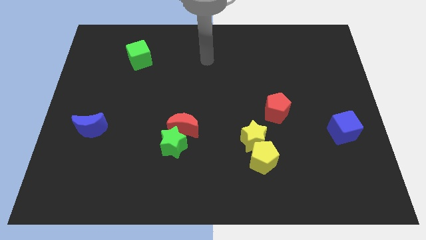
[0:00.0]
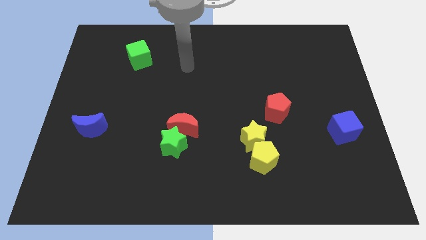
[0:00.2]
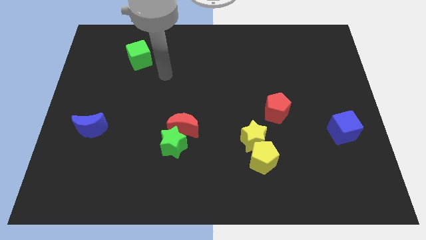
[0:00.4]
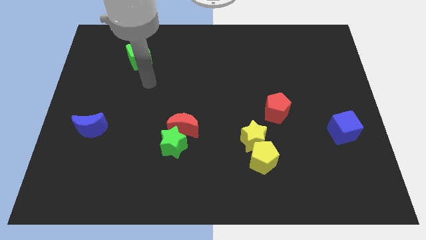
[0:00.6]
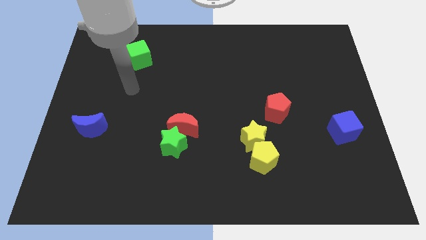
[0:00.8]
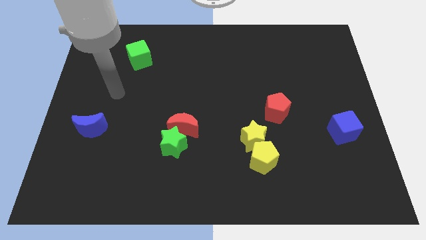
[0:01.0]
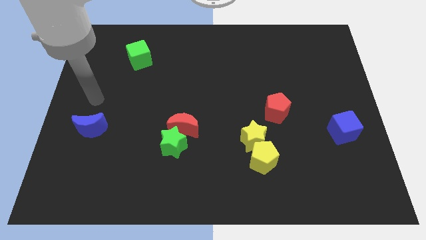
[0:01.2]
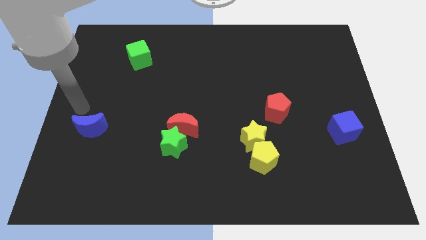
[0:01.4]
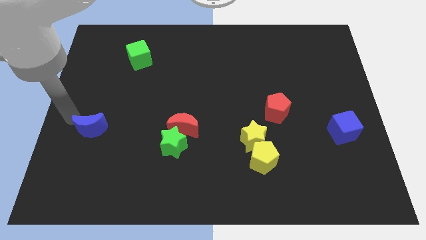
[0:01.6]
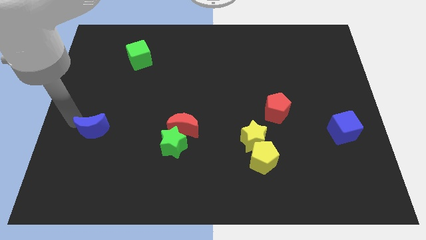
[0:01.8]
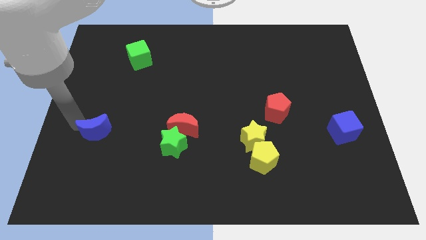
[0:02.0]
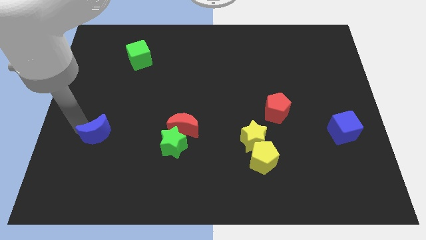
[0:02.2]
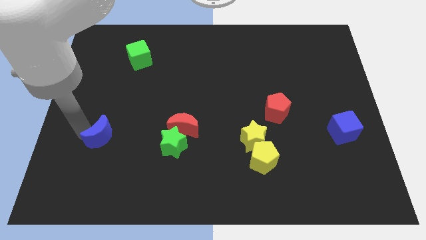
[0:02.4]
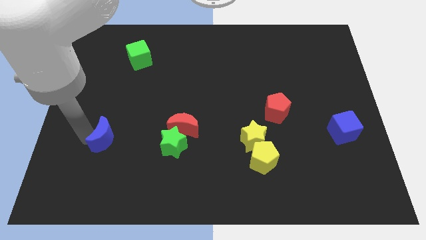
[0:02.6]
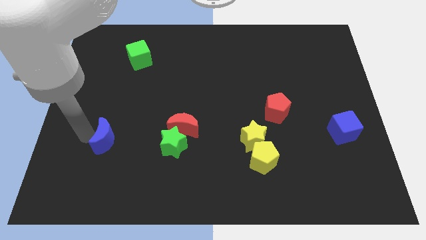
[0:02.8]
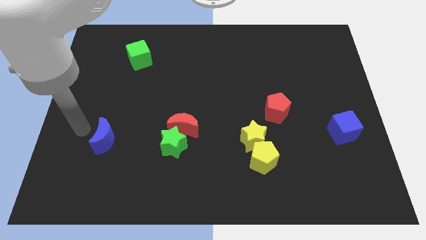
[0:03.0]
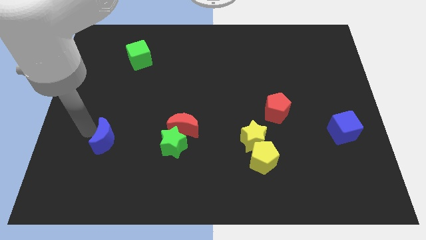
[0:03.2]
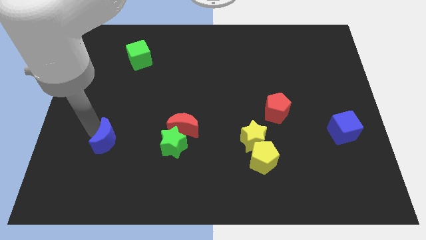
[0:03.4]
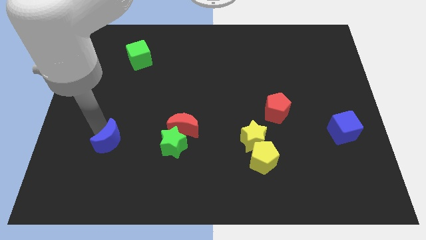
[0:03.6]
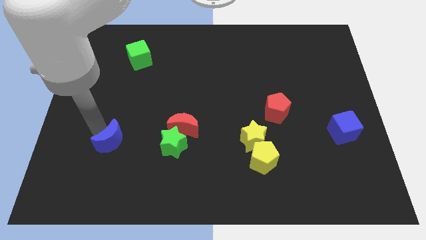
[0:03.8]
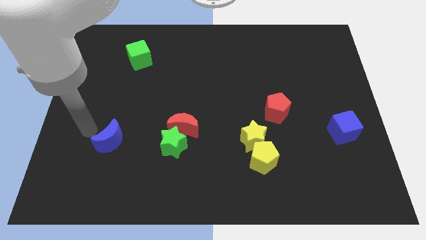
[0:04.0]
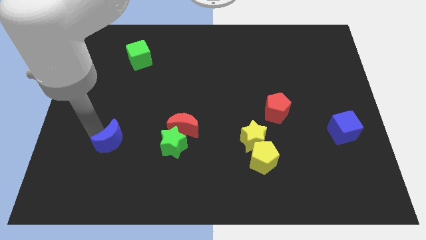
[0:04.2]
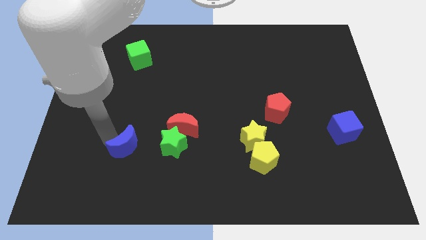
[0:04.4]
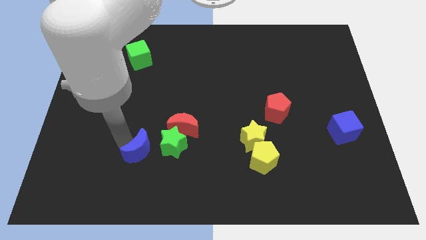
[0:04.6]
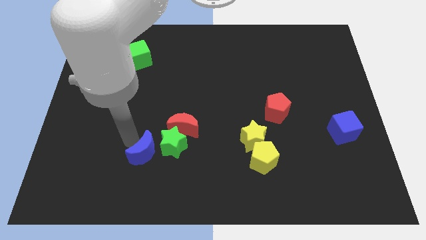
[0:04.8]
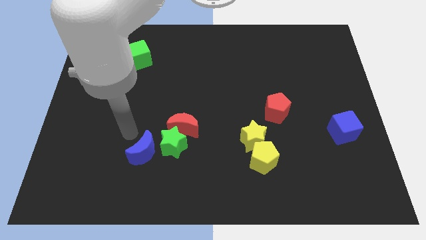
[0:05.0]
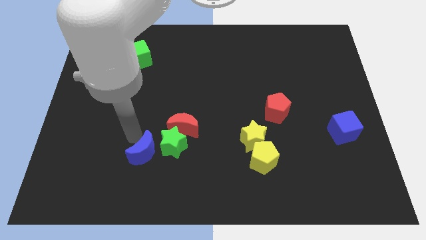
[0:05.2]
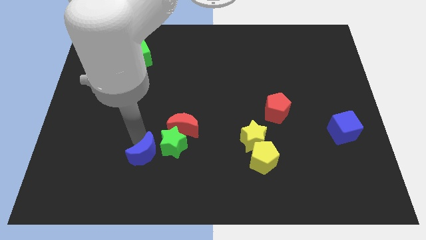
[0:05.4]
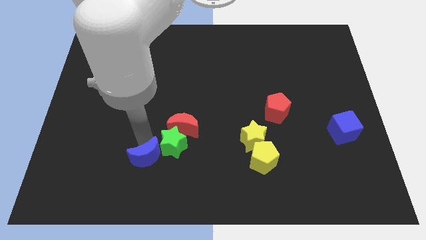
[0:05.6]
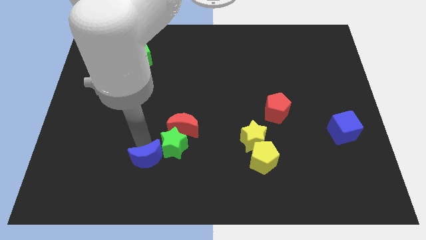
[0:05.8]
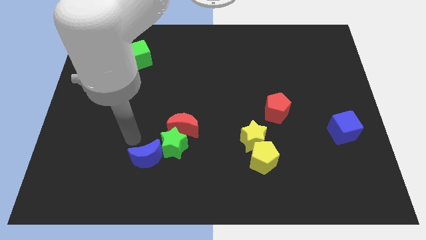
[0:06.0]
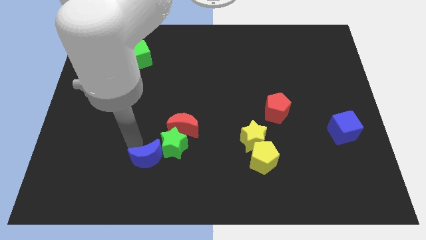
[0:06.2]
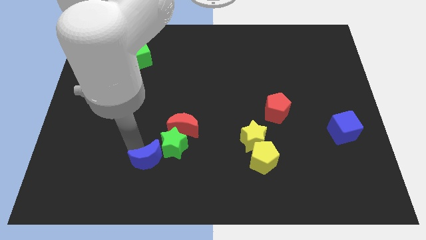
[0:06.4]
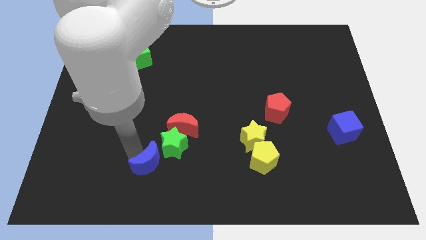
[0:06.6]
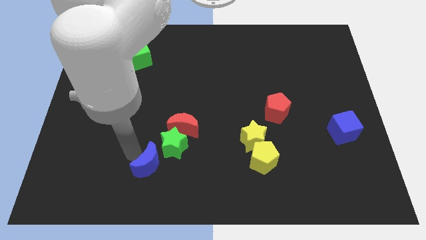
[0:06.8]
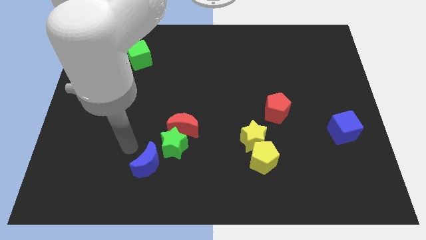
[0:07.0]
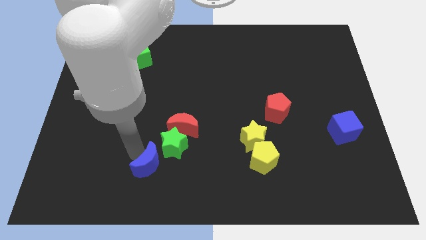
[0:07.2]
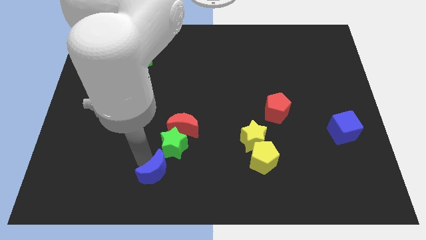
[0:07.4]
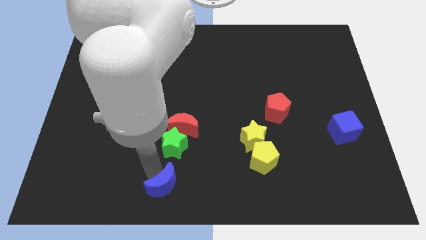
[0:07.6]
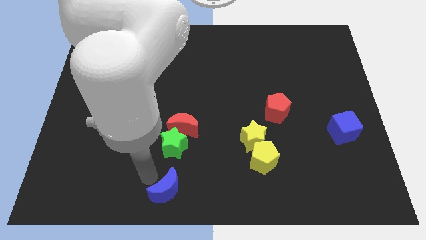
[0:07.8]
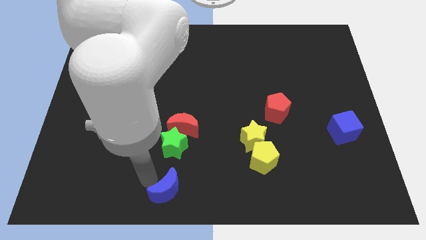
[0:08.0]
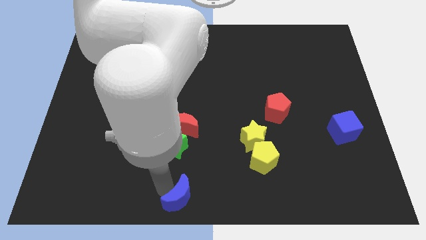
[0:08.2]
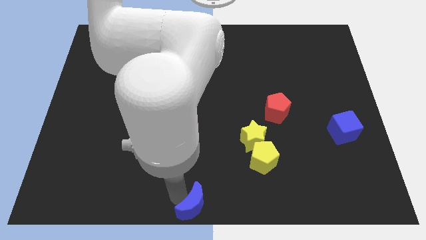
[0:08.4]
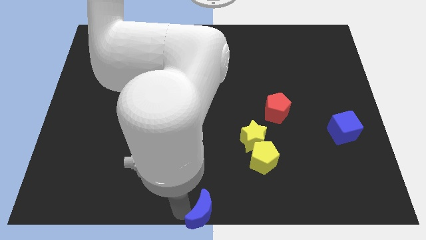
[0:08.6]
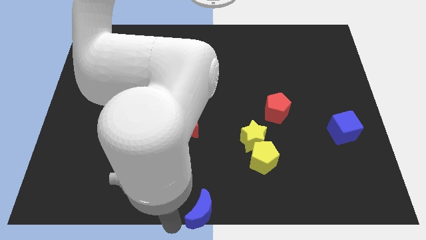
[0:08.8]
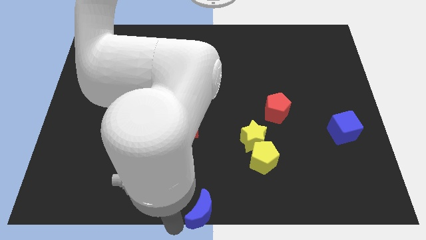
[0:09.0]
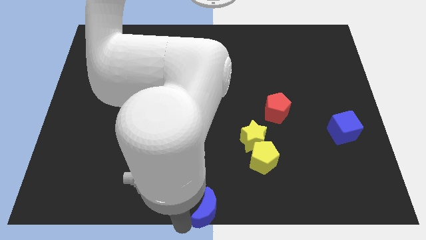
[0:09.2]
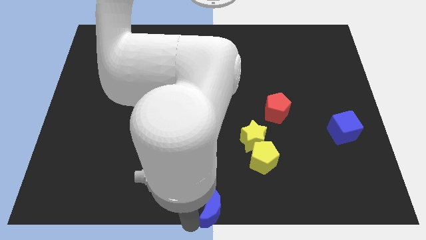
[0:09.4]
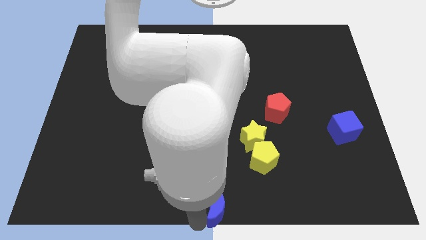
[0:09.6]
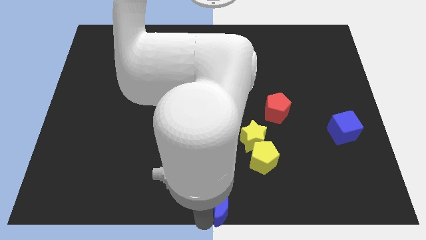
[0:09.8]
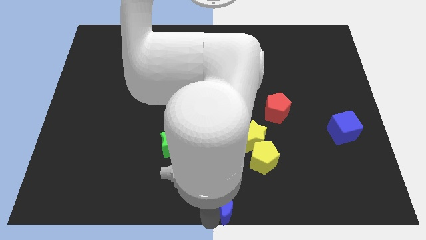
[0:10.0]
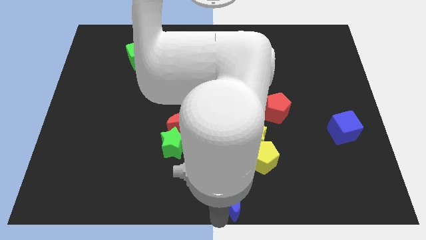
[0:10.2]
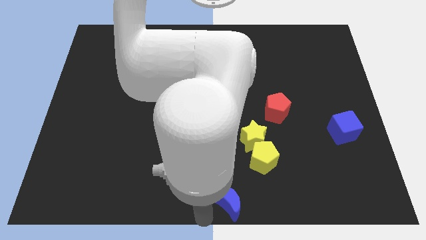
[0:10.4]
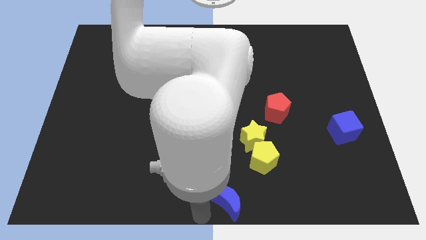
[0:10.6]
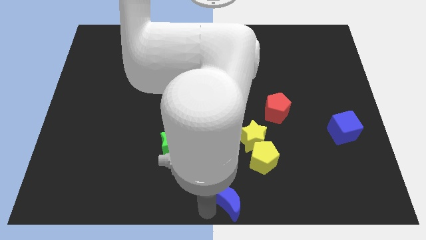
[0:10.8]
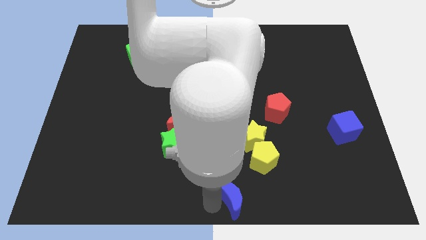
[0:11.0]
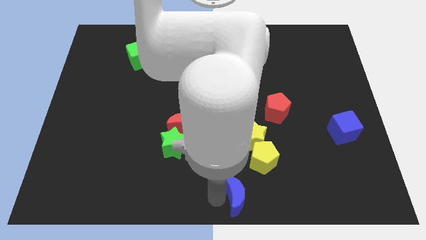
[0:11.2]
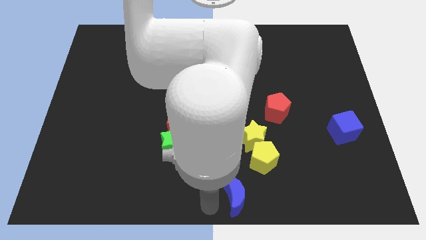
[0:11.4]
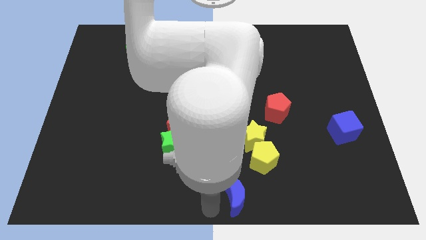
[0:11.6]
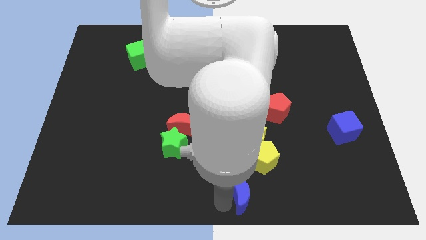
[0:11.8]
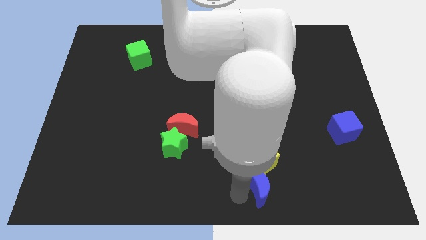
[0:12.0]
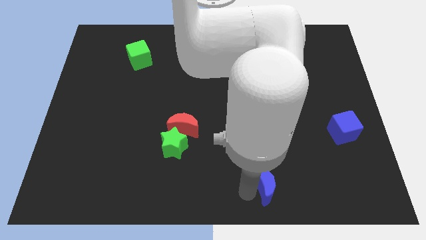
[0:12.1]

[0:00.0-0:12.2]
slide the blue moon diagonally down and to the right of the yellow pentagon
